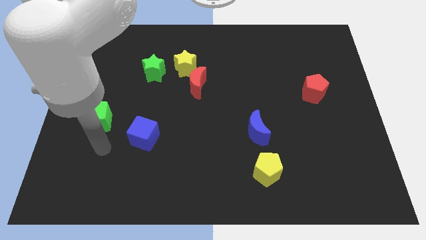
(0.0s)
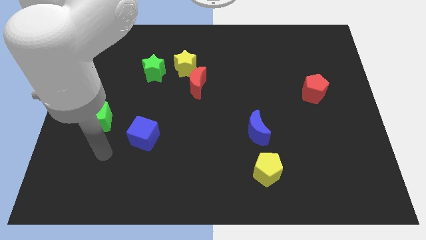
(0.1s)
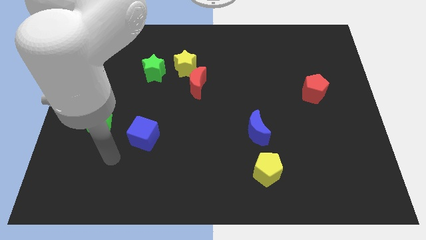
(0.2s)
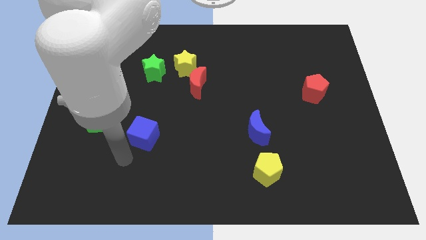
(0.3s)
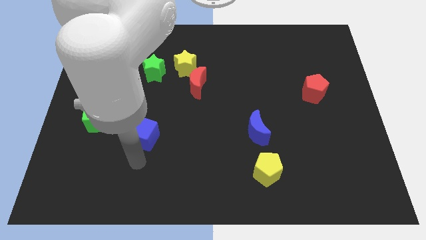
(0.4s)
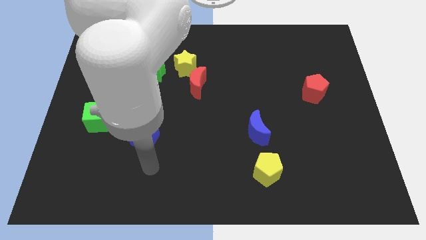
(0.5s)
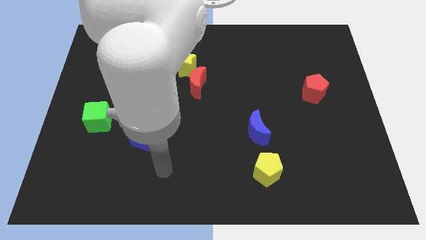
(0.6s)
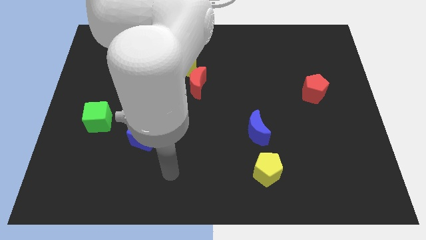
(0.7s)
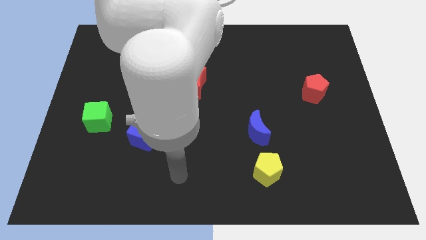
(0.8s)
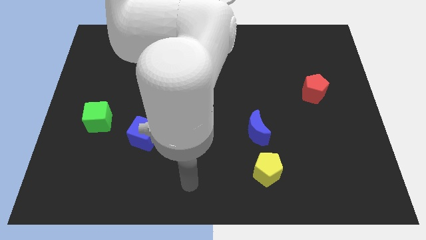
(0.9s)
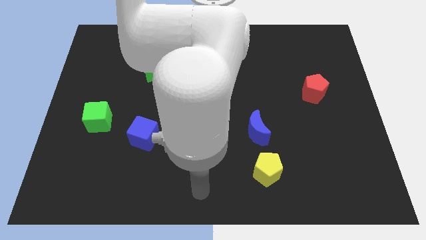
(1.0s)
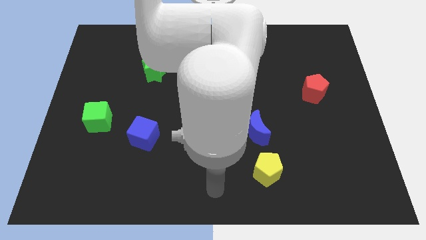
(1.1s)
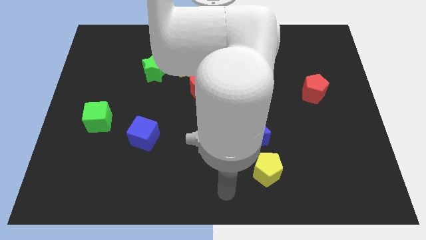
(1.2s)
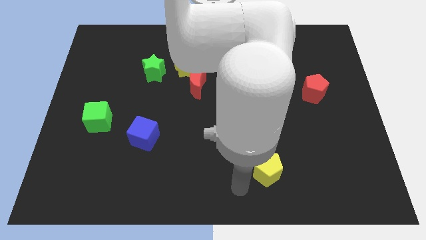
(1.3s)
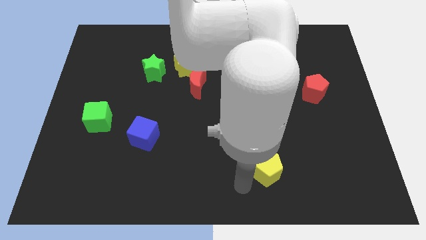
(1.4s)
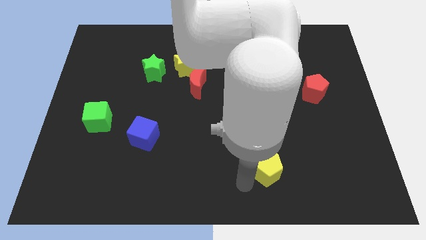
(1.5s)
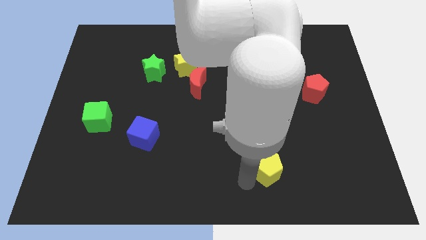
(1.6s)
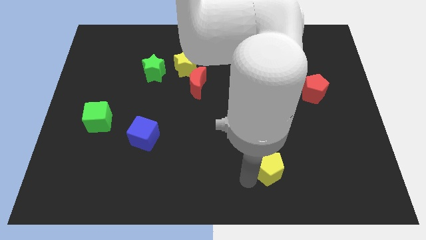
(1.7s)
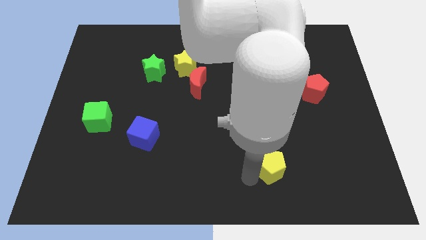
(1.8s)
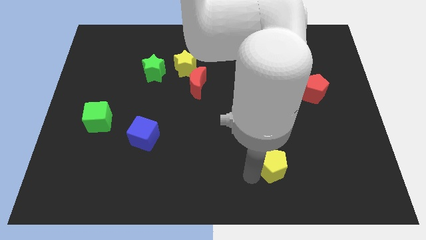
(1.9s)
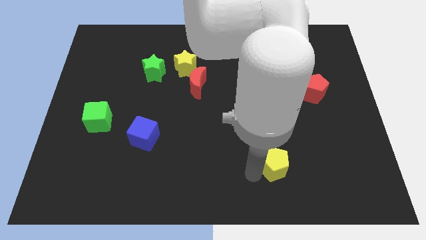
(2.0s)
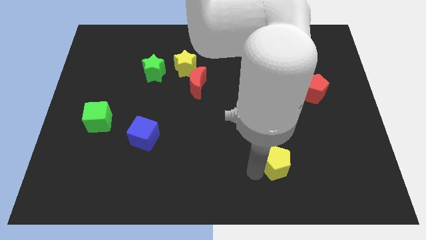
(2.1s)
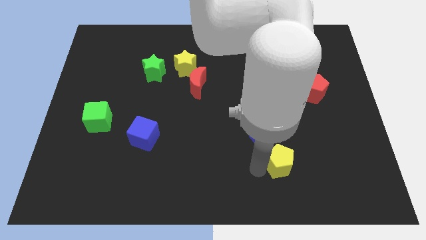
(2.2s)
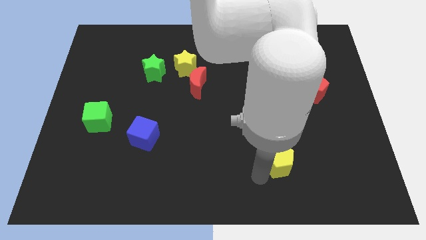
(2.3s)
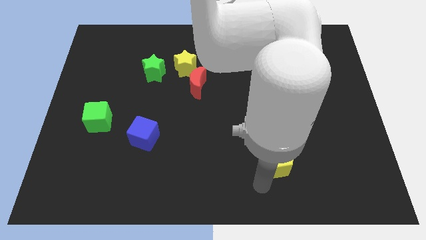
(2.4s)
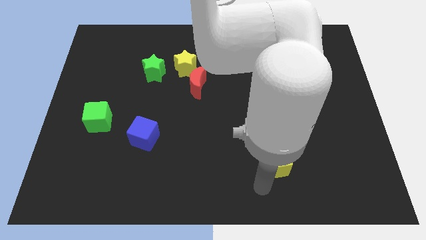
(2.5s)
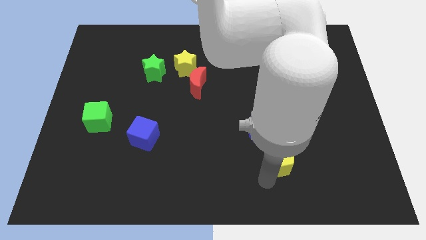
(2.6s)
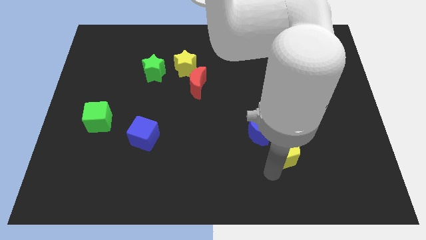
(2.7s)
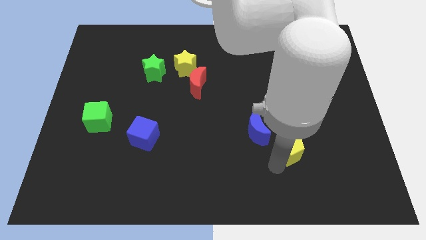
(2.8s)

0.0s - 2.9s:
slide the yellow pentagon a bit upwards and right diagonally

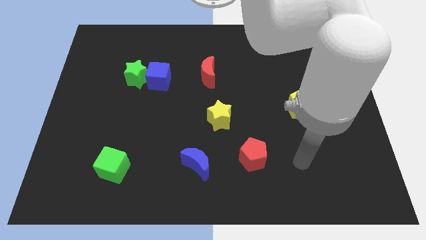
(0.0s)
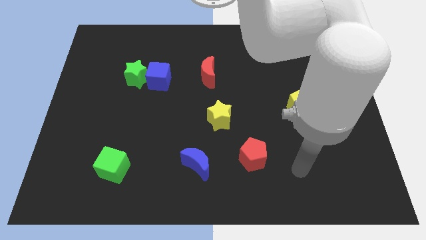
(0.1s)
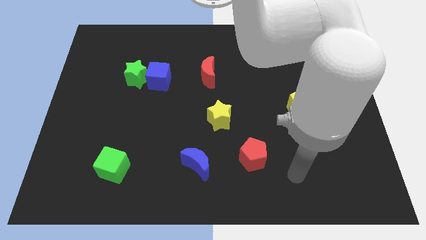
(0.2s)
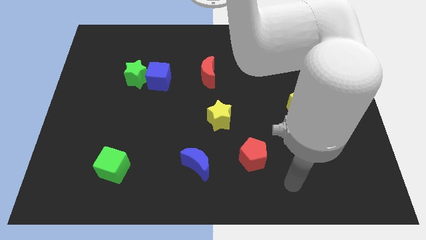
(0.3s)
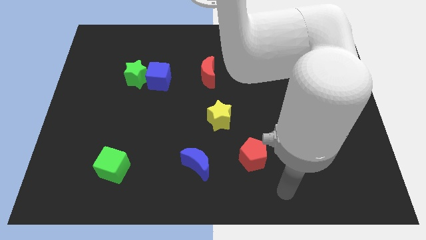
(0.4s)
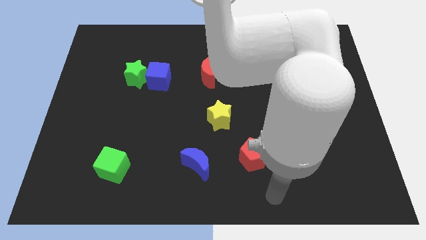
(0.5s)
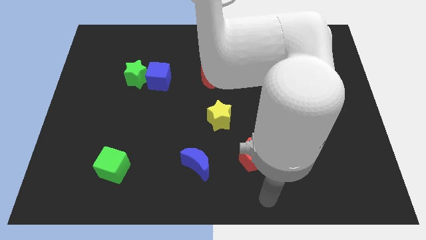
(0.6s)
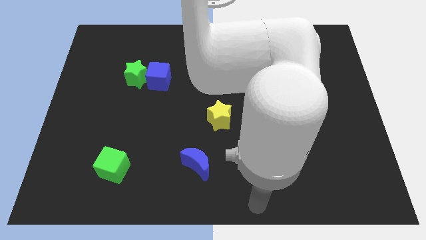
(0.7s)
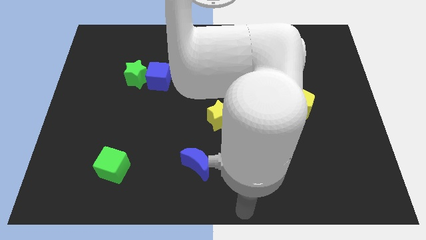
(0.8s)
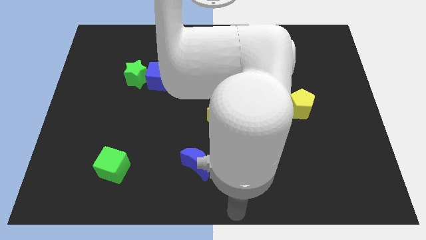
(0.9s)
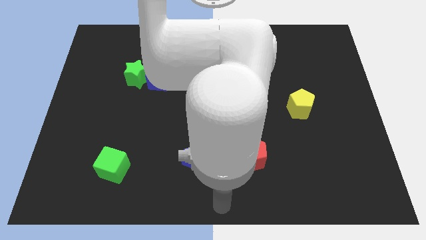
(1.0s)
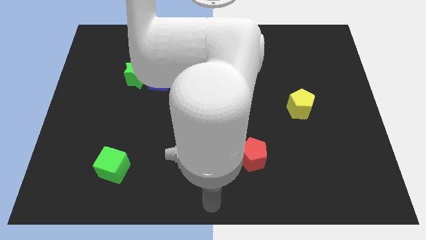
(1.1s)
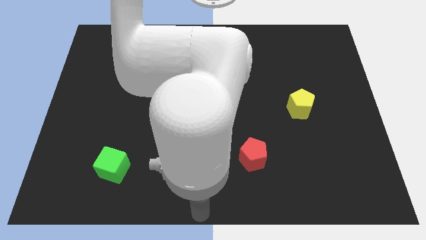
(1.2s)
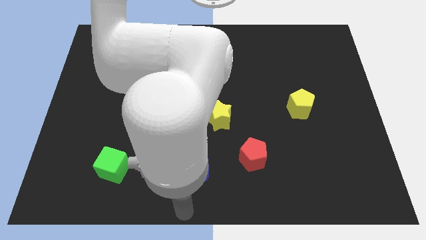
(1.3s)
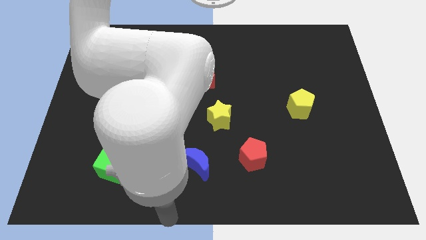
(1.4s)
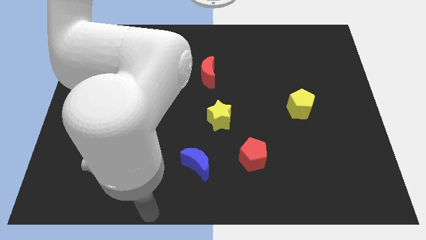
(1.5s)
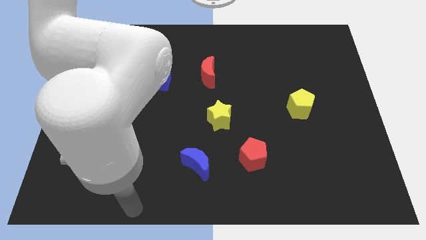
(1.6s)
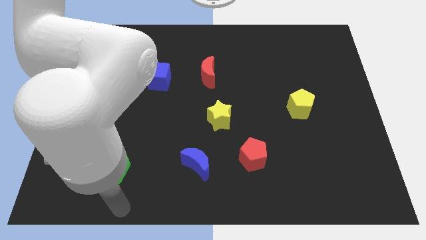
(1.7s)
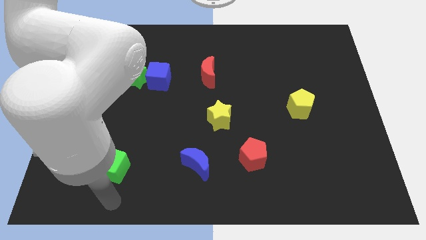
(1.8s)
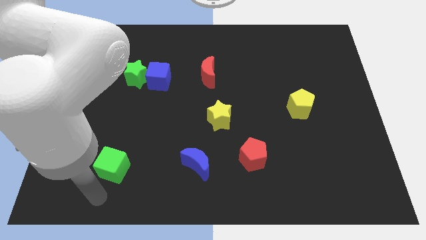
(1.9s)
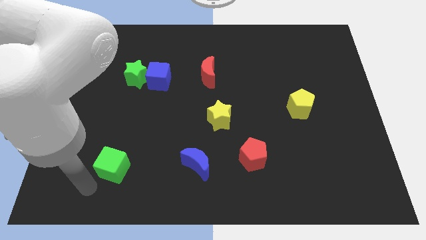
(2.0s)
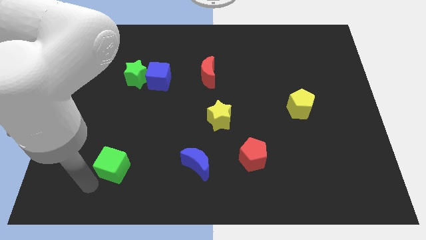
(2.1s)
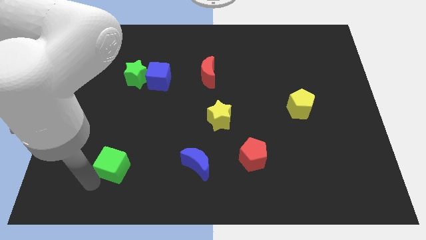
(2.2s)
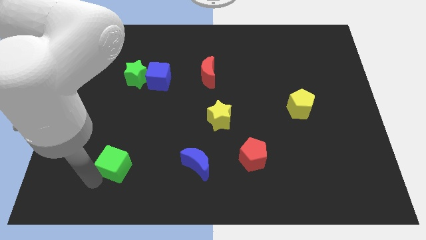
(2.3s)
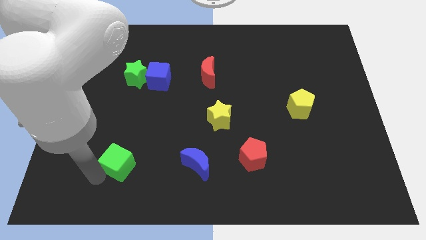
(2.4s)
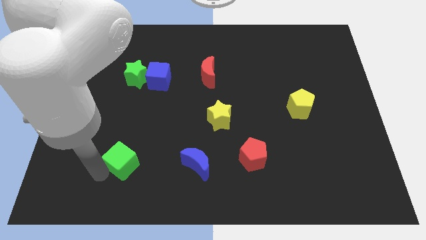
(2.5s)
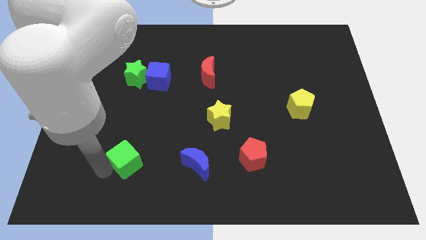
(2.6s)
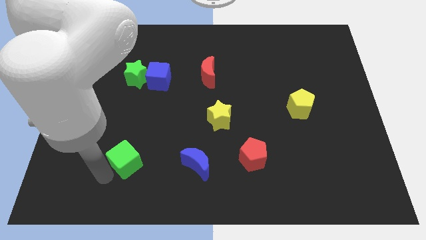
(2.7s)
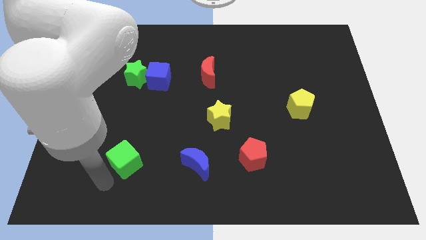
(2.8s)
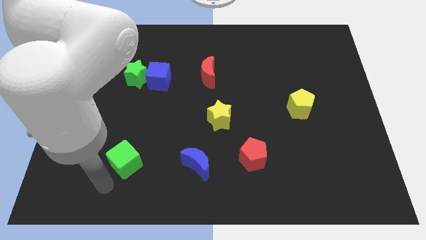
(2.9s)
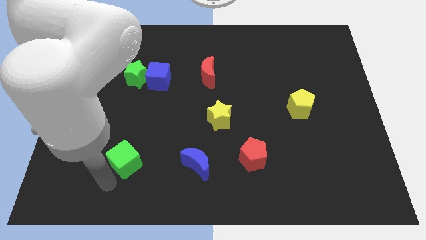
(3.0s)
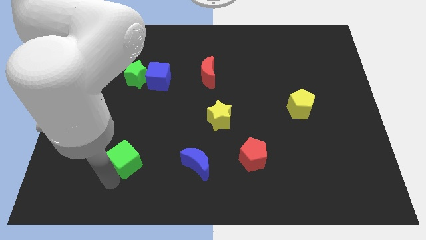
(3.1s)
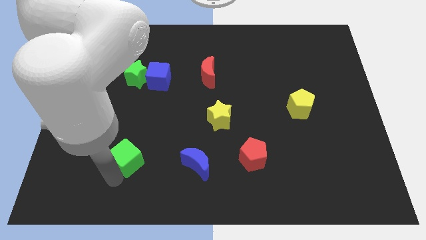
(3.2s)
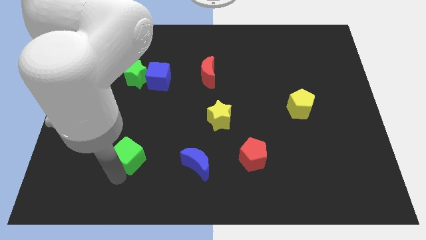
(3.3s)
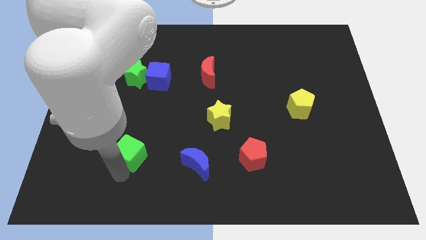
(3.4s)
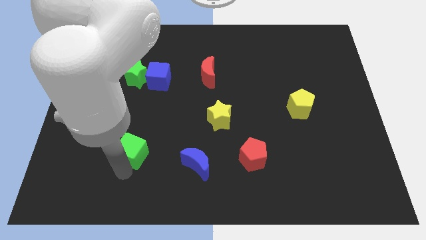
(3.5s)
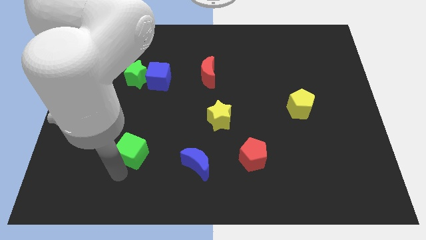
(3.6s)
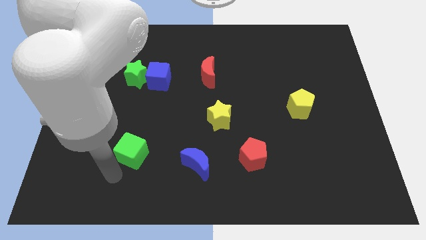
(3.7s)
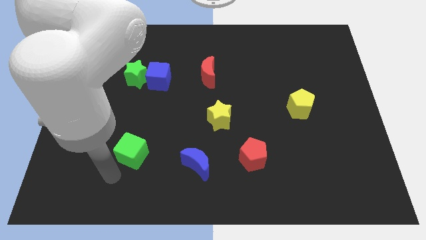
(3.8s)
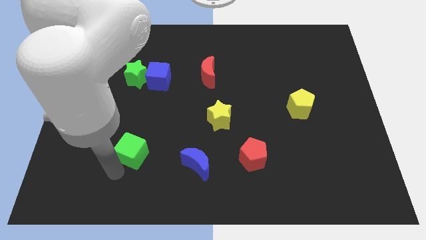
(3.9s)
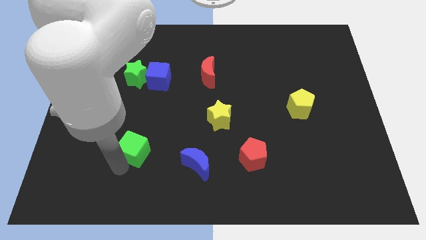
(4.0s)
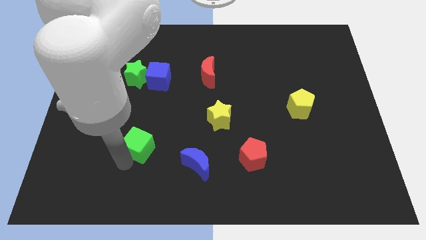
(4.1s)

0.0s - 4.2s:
move the green cube up and to the right diagonally slightly

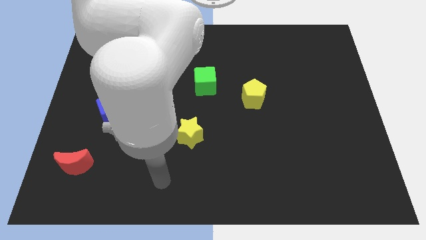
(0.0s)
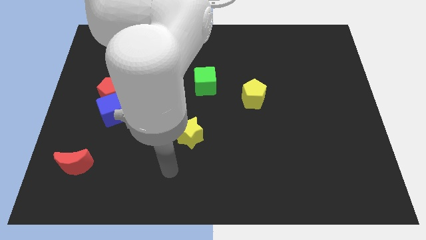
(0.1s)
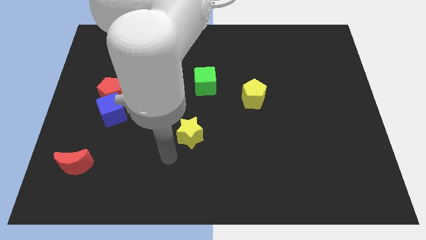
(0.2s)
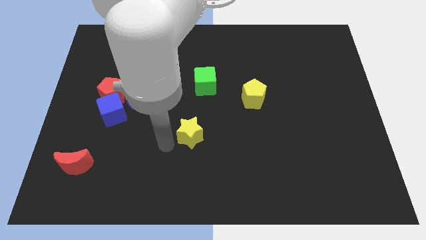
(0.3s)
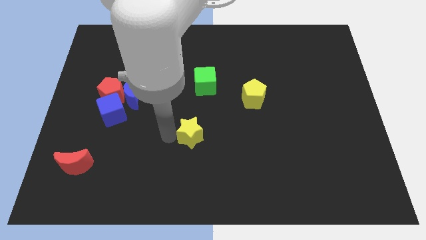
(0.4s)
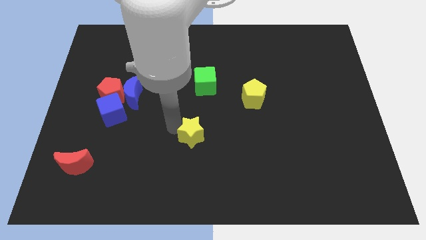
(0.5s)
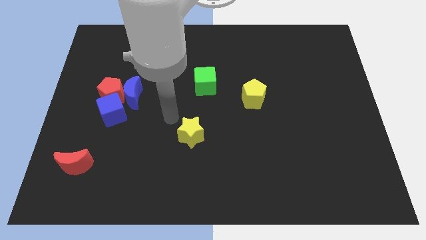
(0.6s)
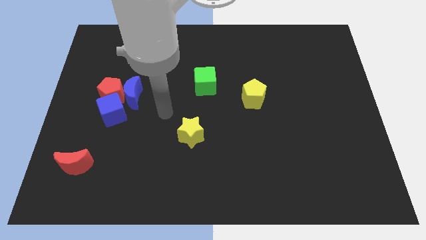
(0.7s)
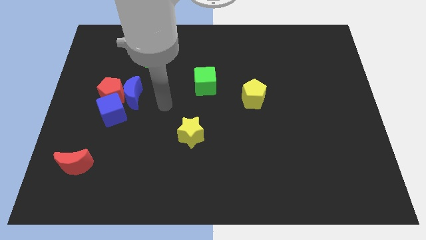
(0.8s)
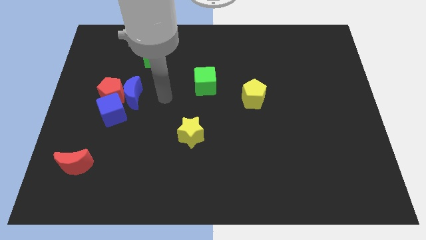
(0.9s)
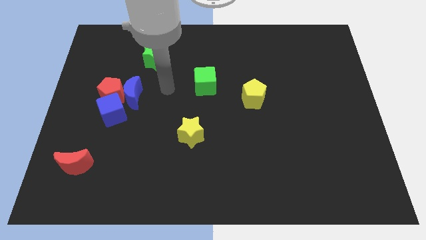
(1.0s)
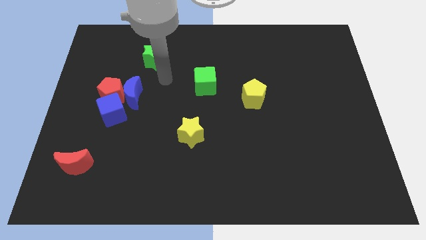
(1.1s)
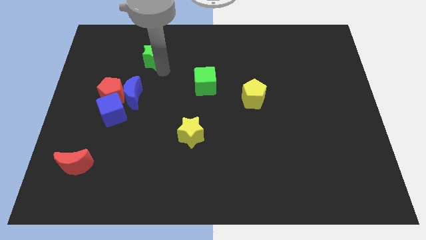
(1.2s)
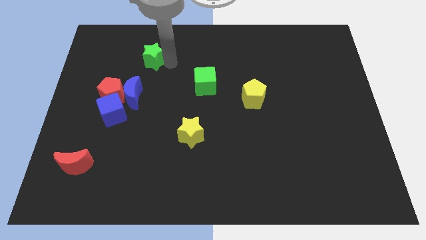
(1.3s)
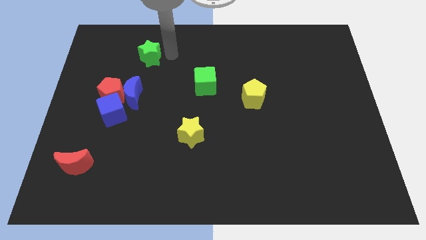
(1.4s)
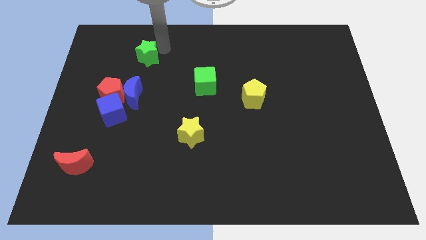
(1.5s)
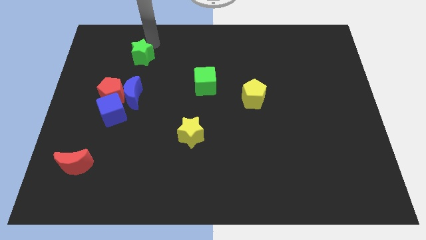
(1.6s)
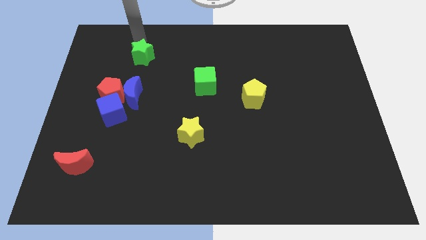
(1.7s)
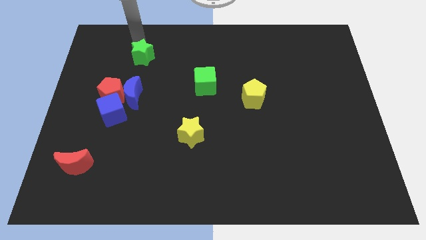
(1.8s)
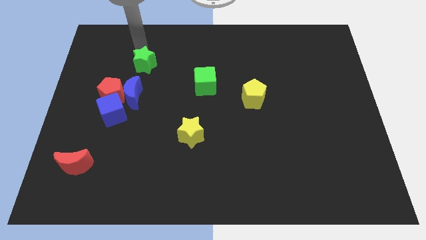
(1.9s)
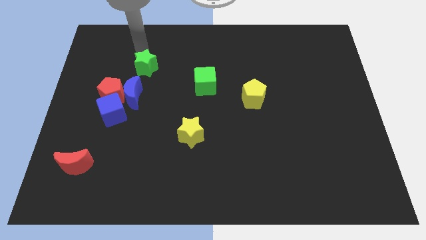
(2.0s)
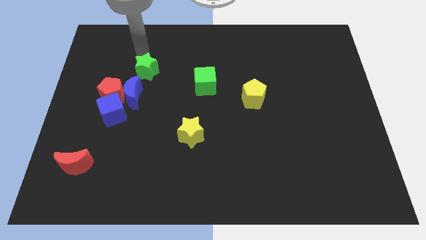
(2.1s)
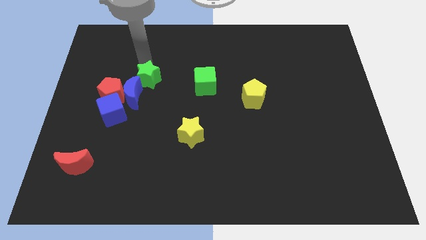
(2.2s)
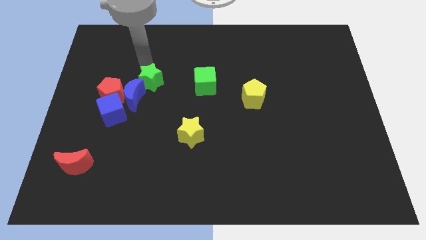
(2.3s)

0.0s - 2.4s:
slightly push the green star downwards
